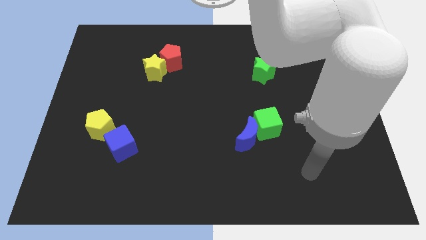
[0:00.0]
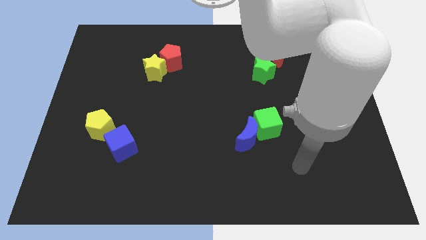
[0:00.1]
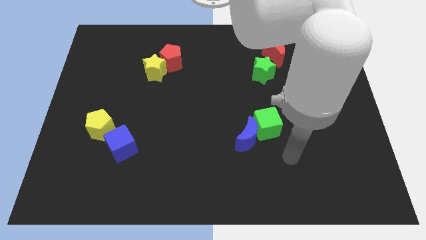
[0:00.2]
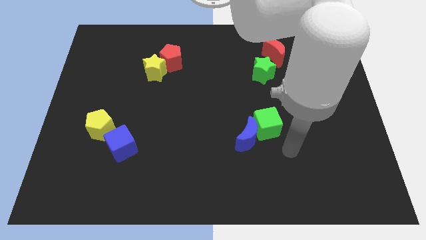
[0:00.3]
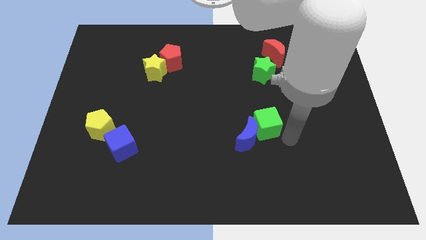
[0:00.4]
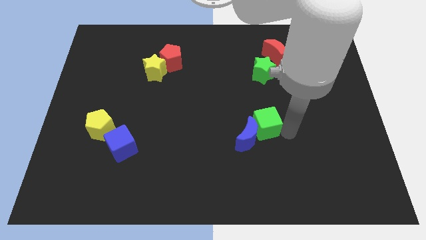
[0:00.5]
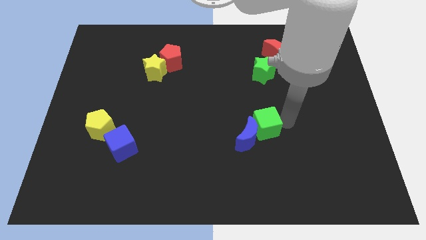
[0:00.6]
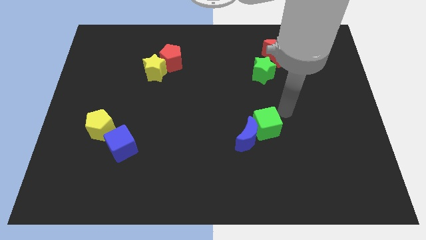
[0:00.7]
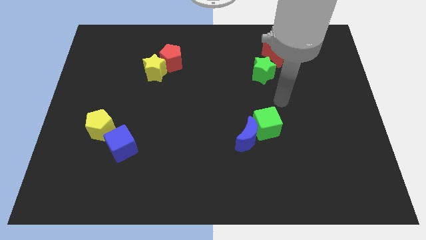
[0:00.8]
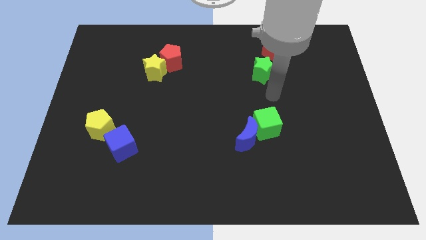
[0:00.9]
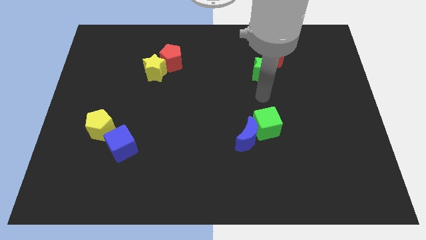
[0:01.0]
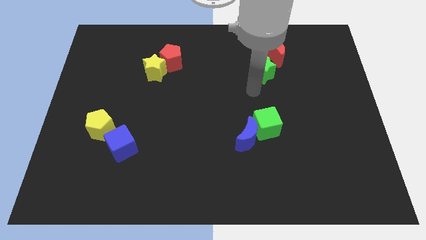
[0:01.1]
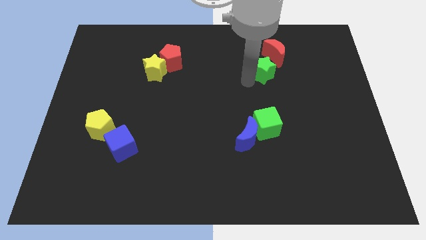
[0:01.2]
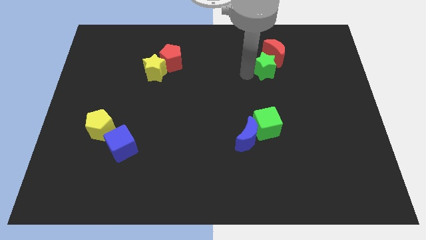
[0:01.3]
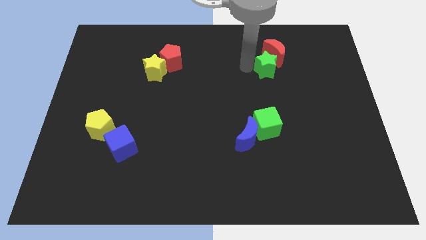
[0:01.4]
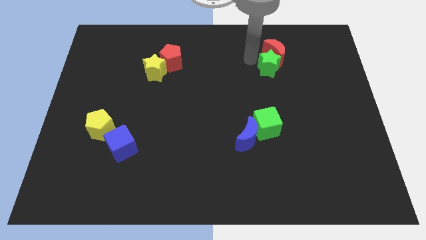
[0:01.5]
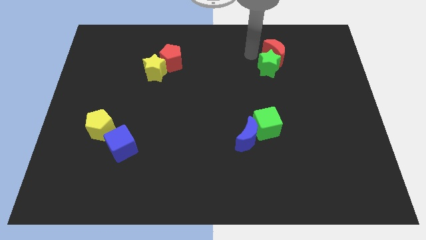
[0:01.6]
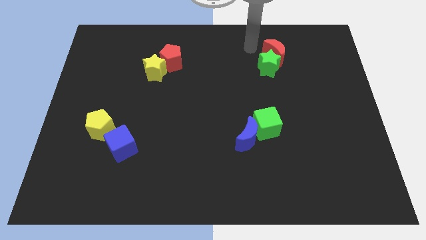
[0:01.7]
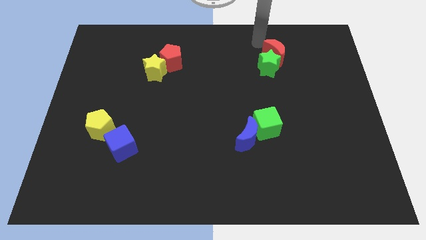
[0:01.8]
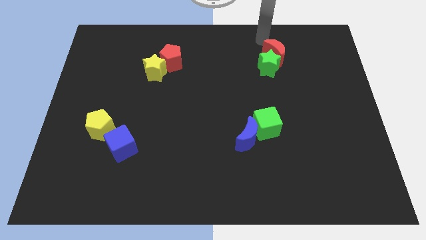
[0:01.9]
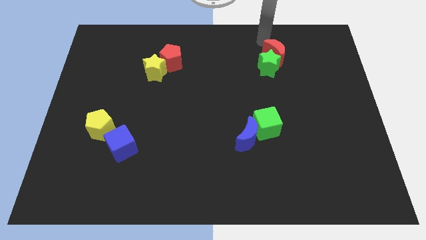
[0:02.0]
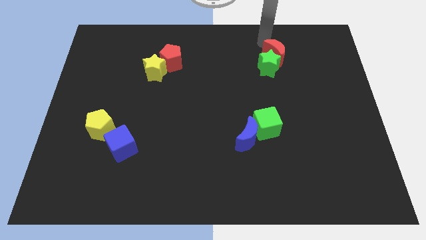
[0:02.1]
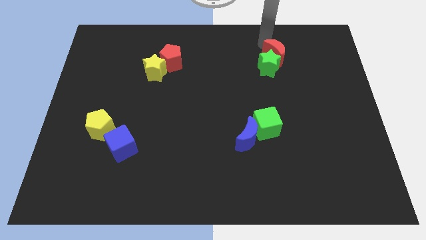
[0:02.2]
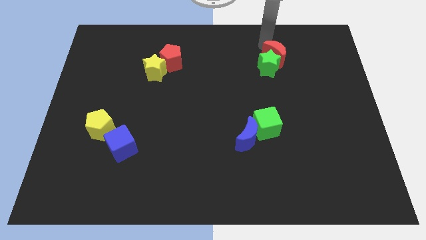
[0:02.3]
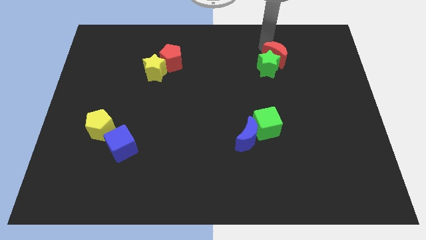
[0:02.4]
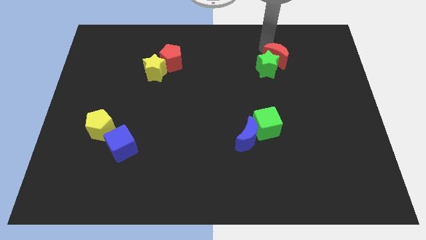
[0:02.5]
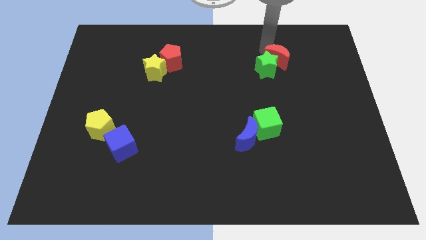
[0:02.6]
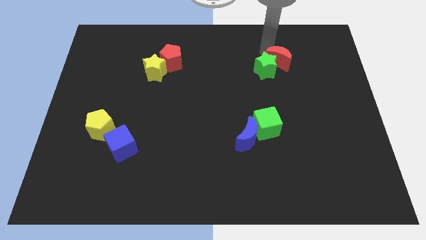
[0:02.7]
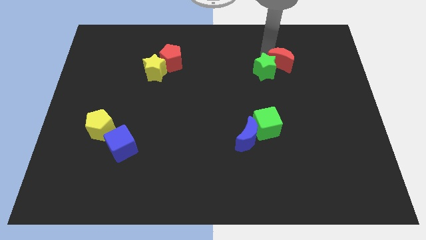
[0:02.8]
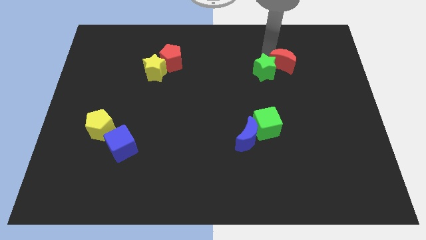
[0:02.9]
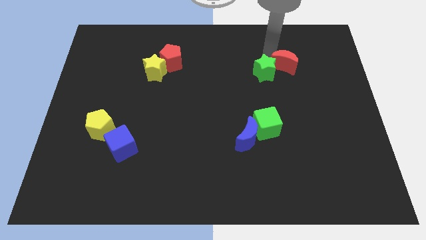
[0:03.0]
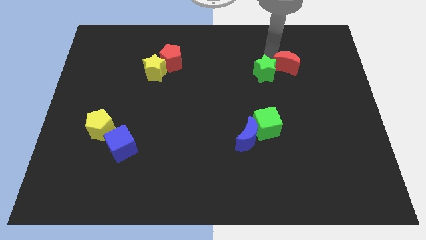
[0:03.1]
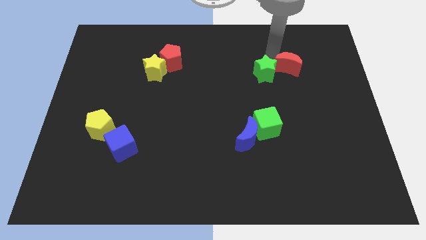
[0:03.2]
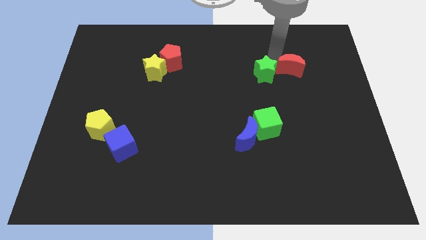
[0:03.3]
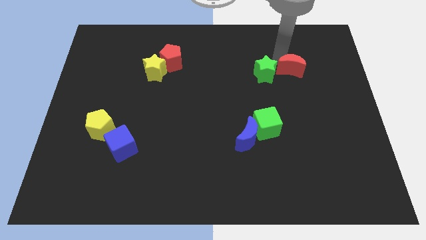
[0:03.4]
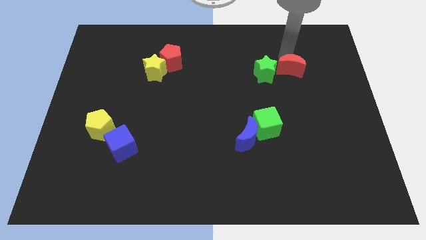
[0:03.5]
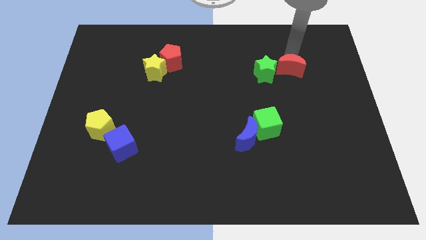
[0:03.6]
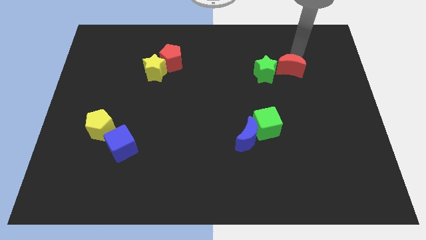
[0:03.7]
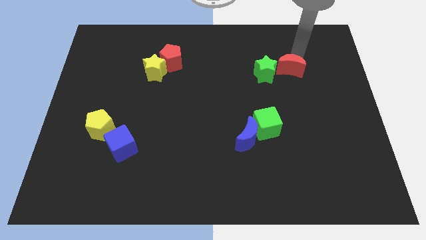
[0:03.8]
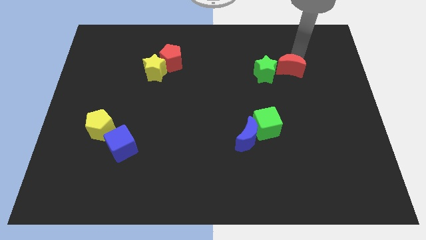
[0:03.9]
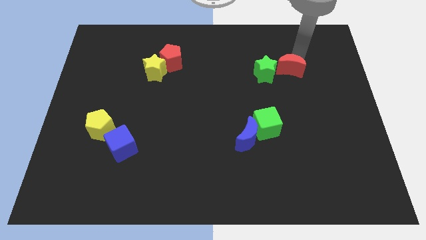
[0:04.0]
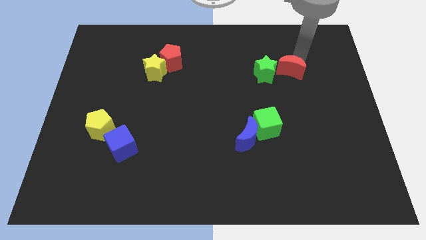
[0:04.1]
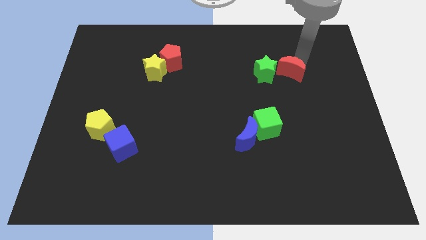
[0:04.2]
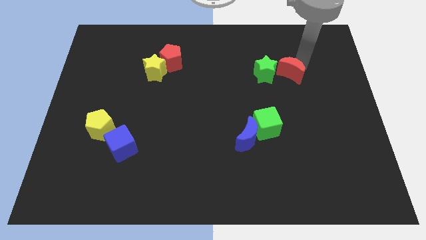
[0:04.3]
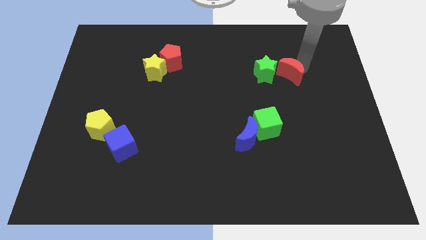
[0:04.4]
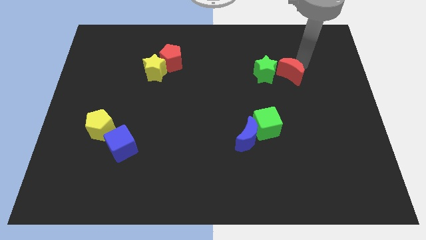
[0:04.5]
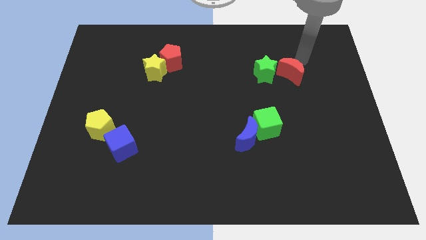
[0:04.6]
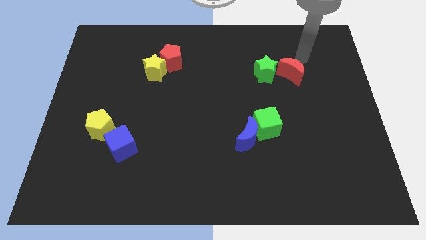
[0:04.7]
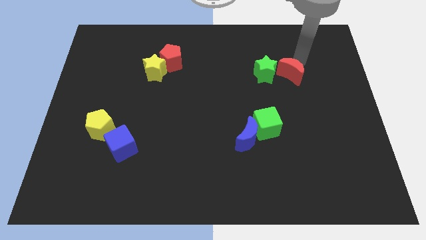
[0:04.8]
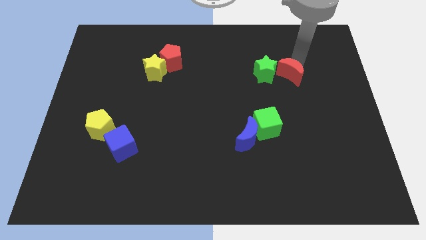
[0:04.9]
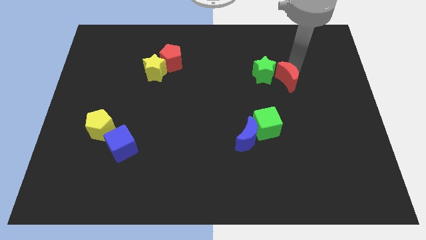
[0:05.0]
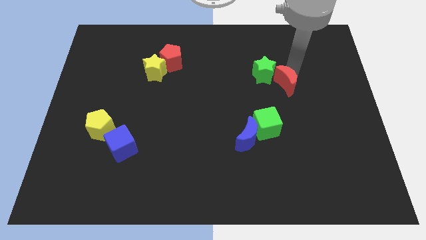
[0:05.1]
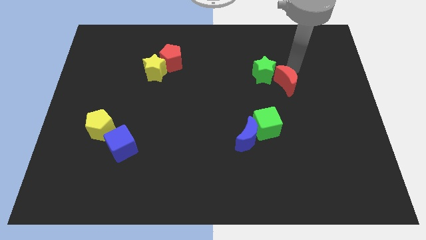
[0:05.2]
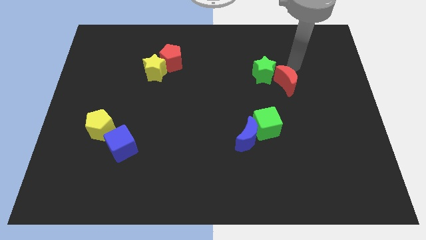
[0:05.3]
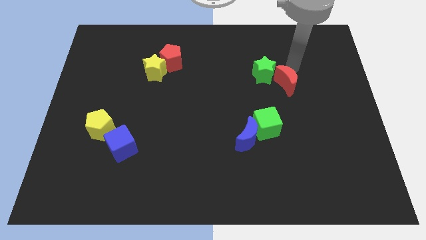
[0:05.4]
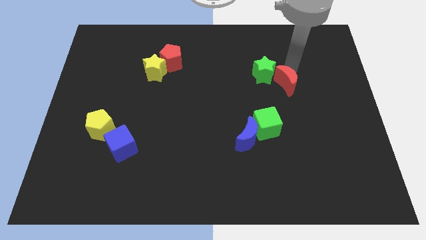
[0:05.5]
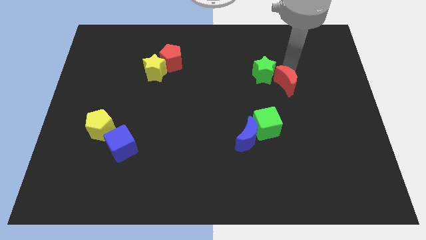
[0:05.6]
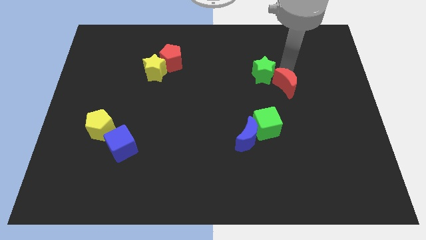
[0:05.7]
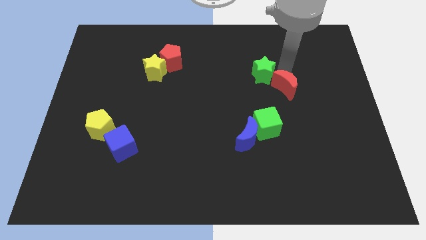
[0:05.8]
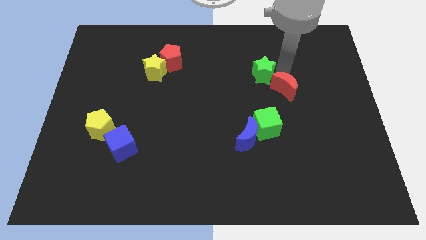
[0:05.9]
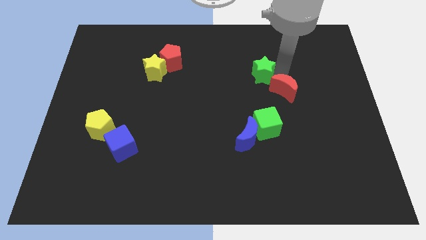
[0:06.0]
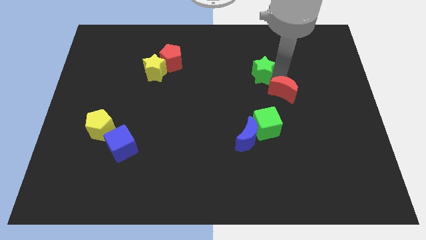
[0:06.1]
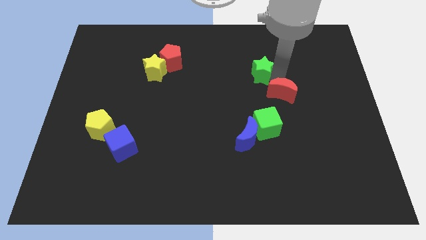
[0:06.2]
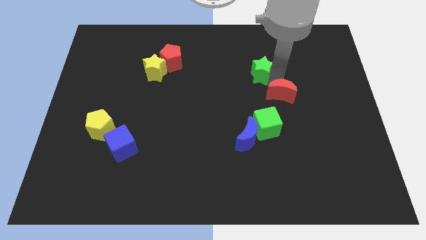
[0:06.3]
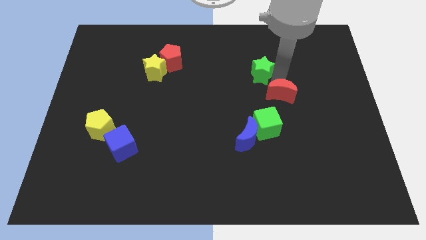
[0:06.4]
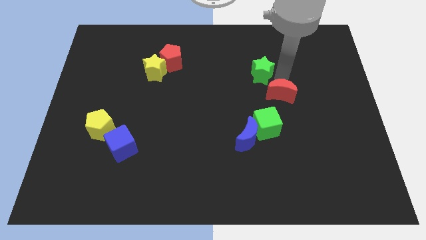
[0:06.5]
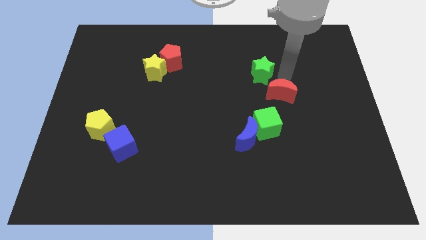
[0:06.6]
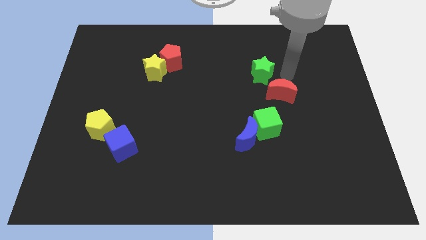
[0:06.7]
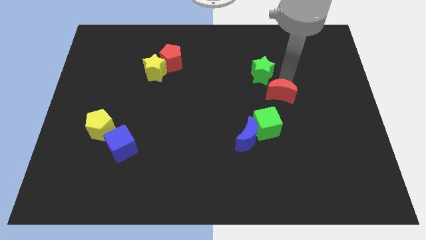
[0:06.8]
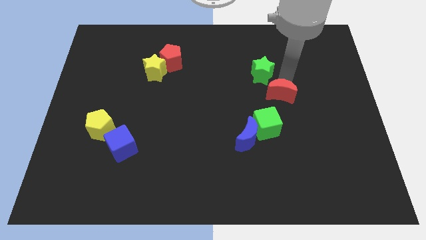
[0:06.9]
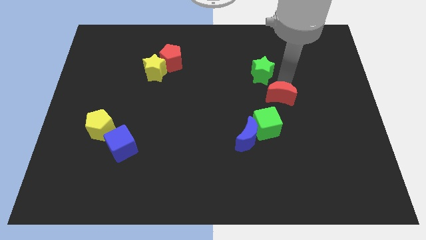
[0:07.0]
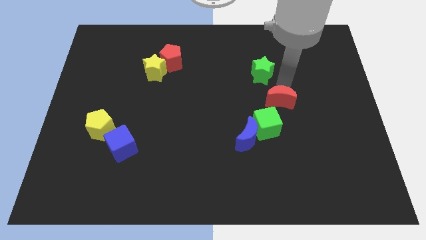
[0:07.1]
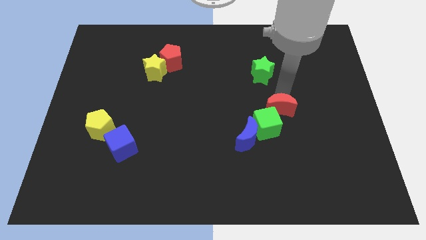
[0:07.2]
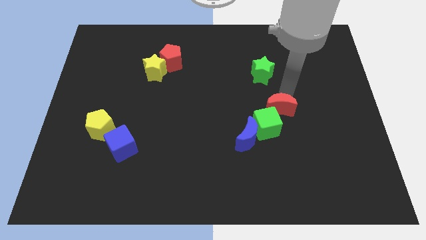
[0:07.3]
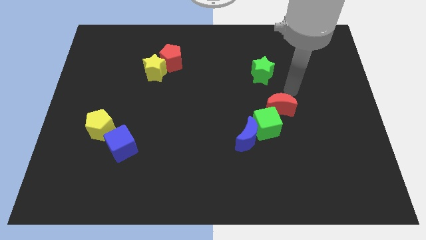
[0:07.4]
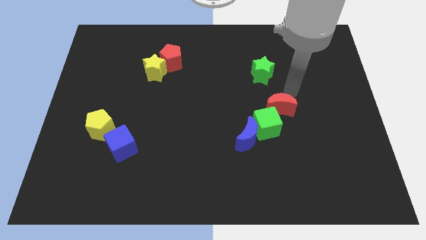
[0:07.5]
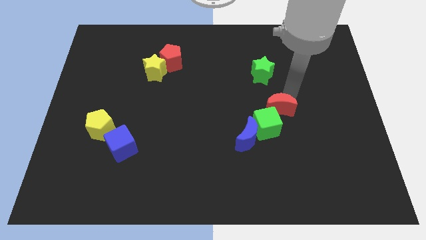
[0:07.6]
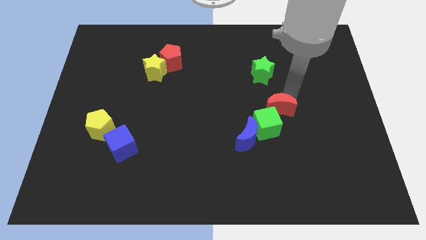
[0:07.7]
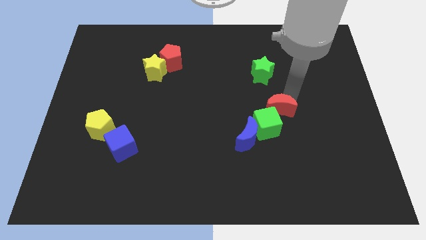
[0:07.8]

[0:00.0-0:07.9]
move the red moon to the green cube

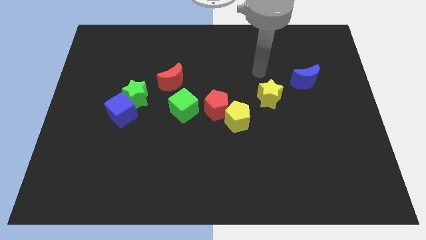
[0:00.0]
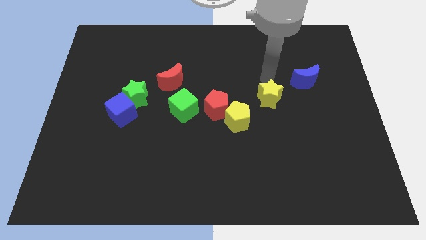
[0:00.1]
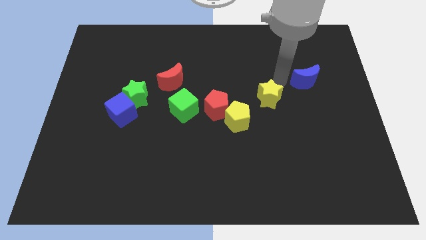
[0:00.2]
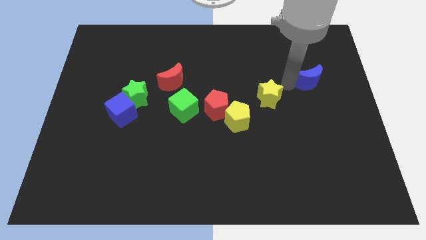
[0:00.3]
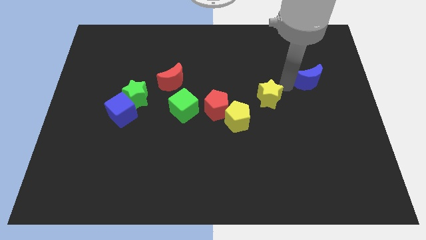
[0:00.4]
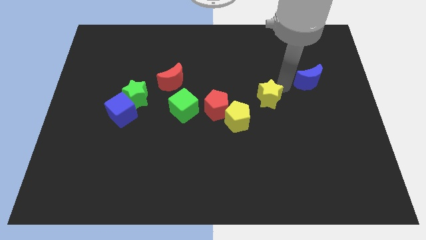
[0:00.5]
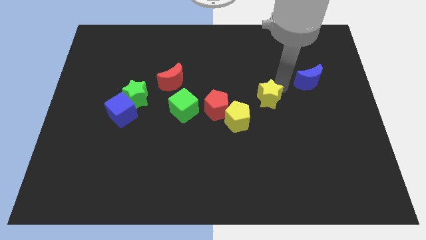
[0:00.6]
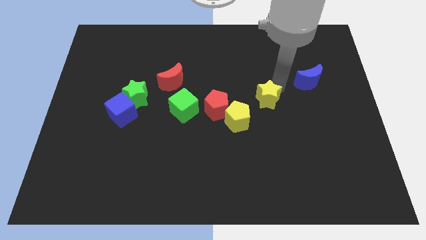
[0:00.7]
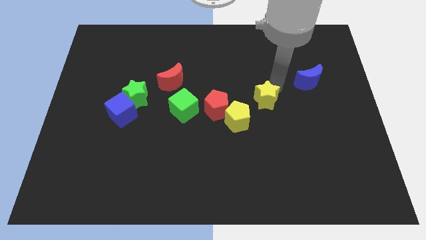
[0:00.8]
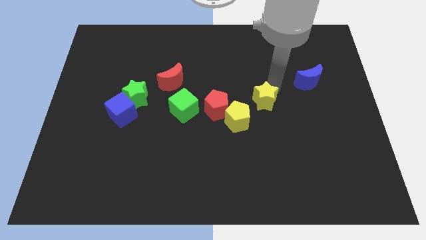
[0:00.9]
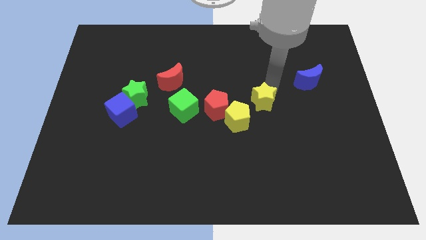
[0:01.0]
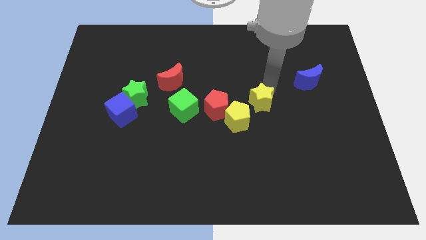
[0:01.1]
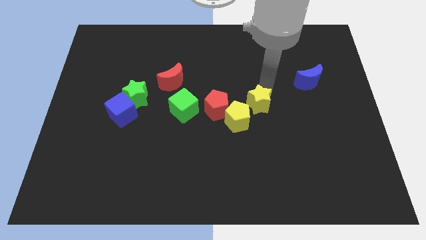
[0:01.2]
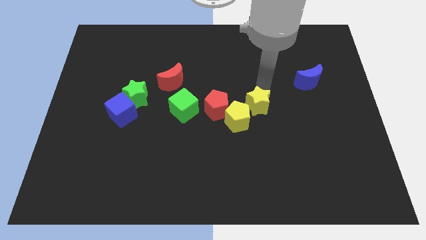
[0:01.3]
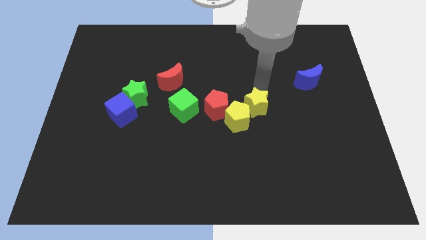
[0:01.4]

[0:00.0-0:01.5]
move the yellow star next to the yellow pentagon
